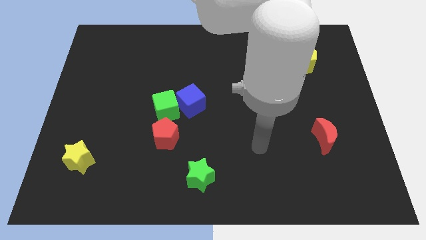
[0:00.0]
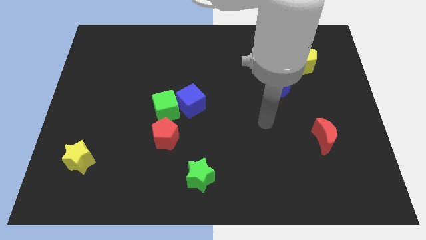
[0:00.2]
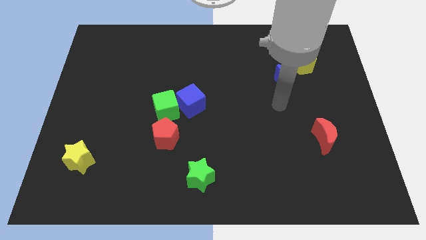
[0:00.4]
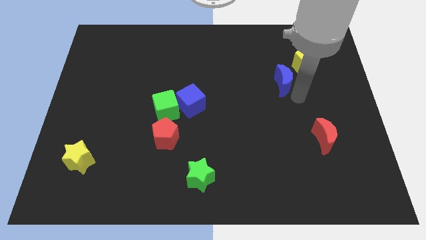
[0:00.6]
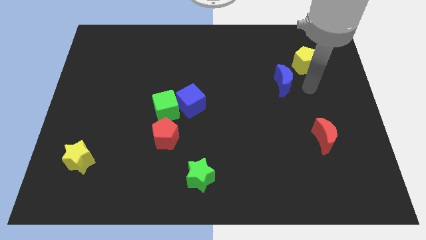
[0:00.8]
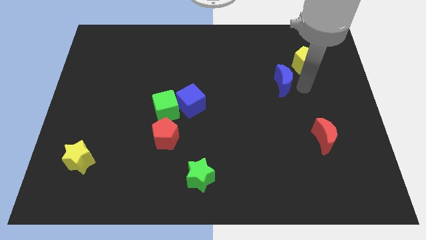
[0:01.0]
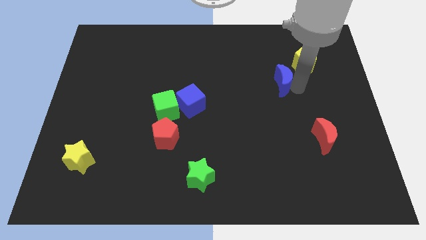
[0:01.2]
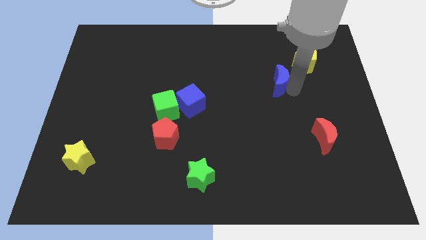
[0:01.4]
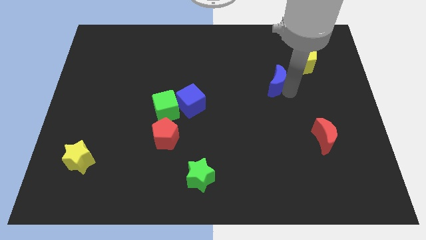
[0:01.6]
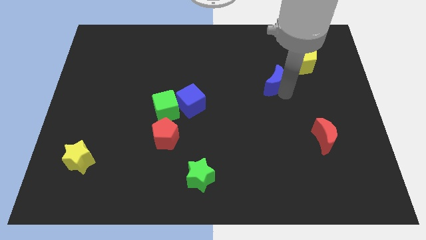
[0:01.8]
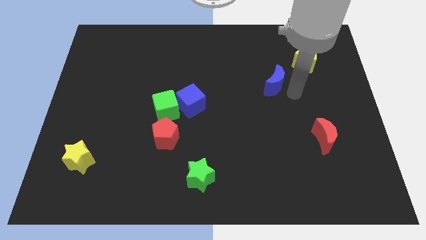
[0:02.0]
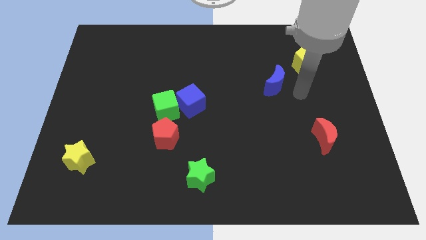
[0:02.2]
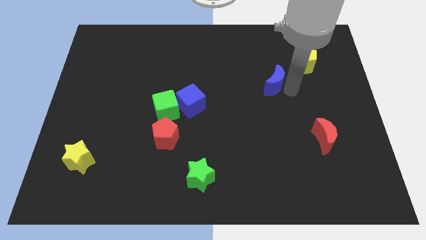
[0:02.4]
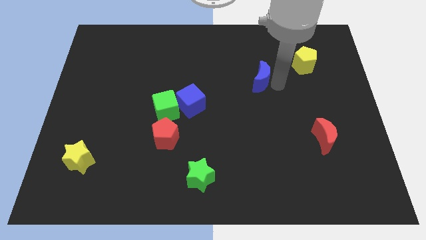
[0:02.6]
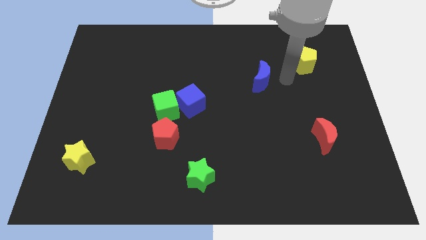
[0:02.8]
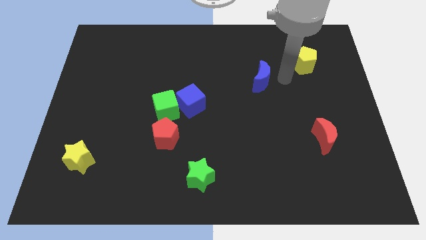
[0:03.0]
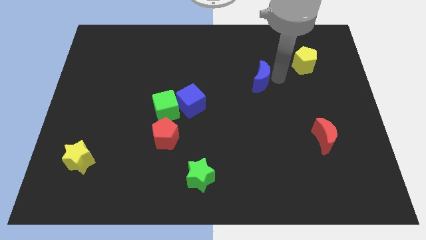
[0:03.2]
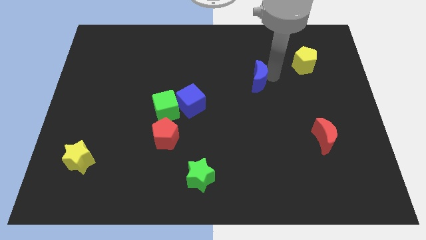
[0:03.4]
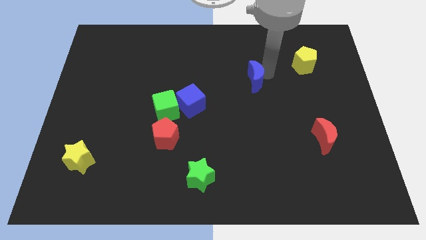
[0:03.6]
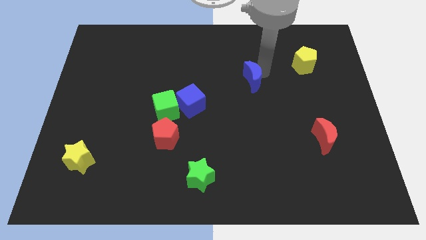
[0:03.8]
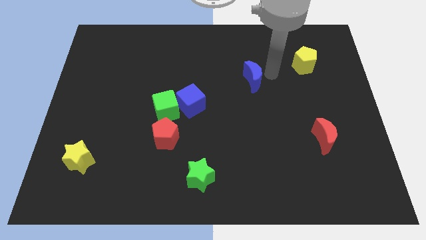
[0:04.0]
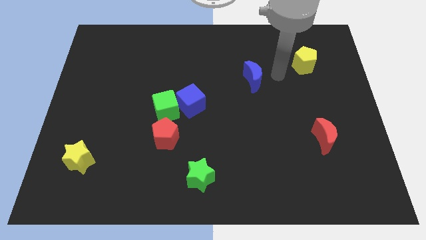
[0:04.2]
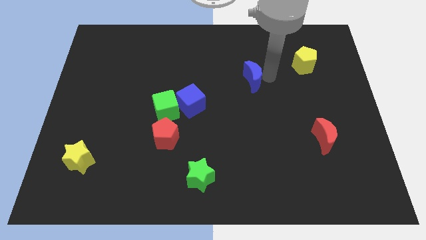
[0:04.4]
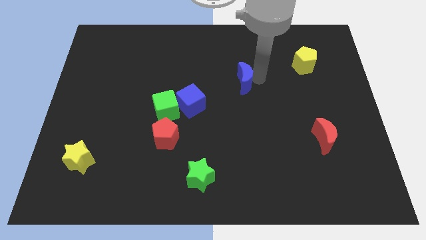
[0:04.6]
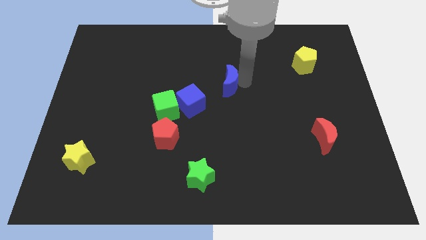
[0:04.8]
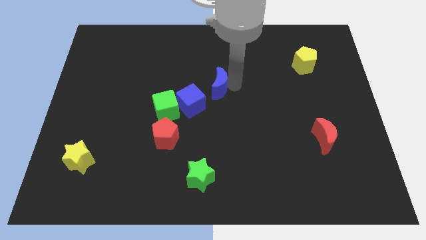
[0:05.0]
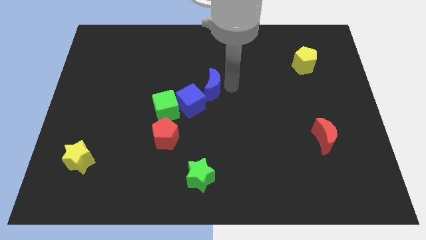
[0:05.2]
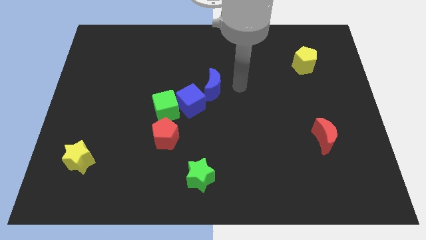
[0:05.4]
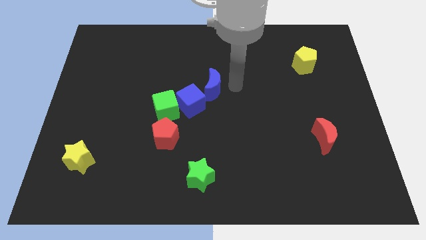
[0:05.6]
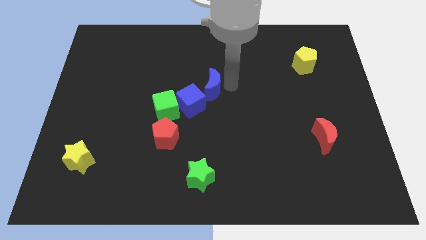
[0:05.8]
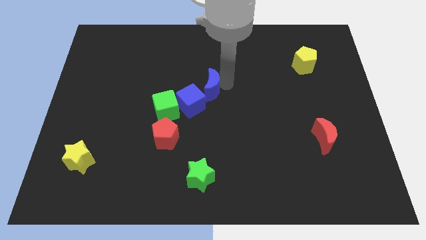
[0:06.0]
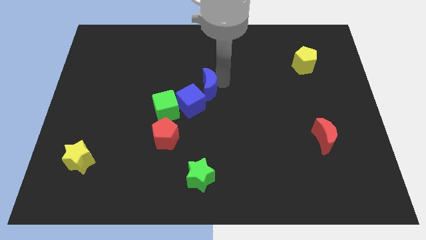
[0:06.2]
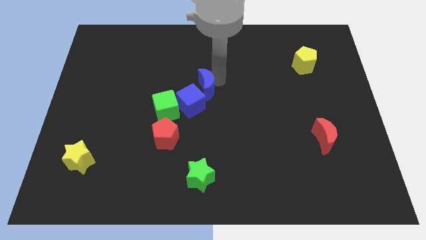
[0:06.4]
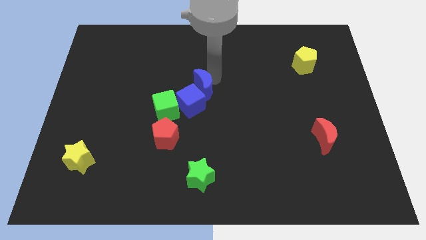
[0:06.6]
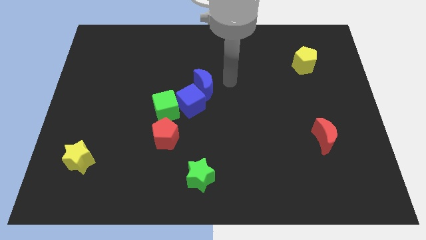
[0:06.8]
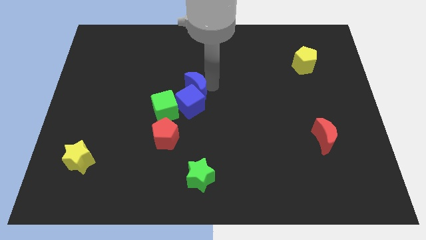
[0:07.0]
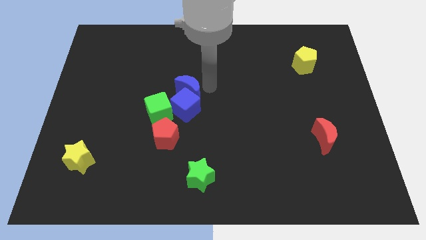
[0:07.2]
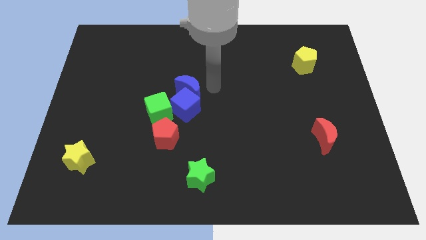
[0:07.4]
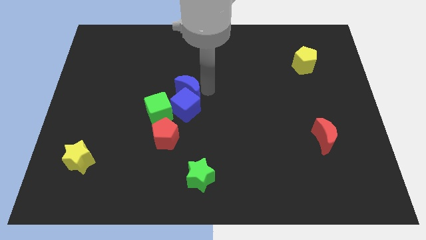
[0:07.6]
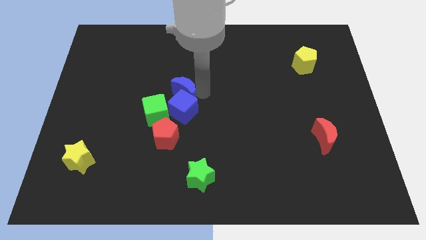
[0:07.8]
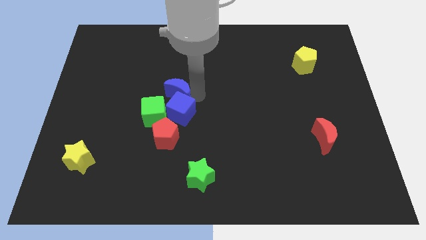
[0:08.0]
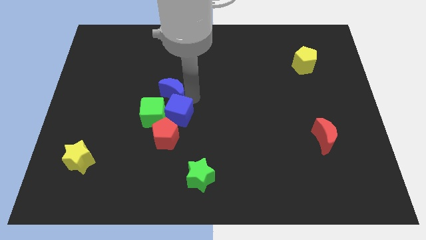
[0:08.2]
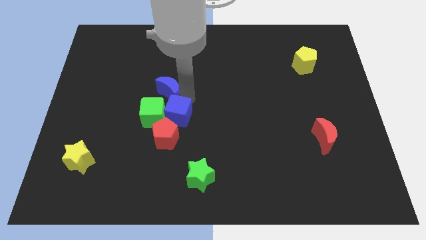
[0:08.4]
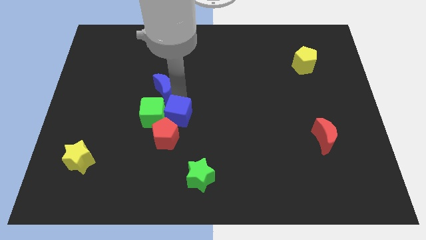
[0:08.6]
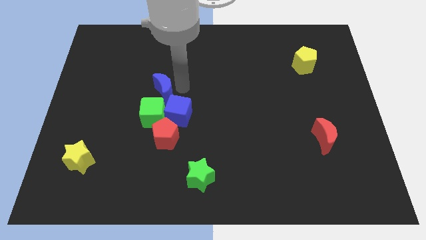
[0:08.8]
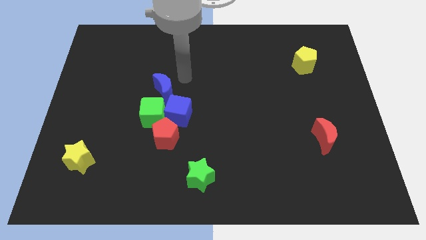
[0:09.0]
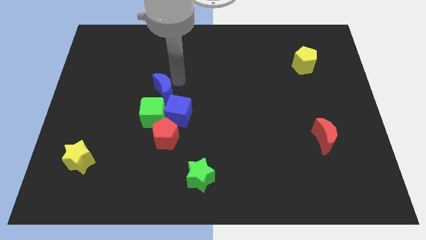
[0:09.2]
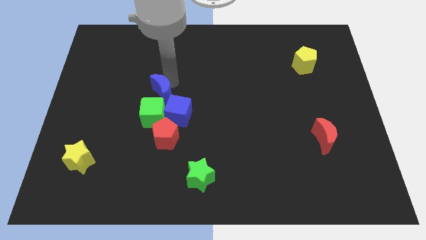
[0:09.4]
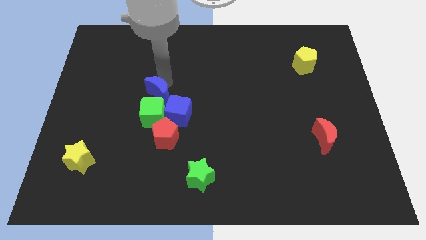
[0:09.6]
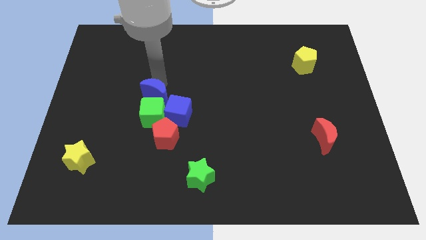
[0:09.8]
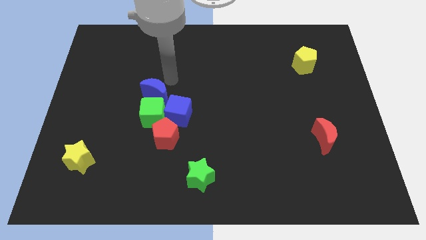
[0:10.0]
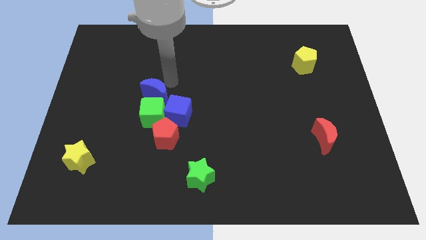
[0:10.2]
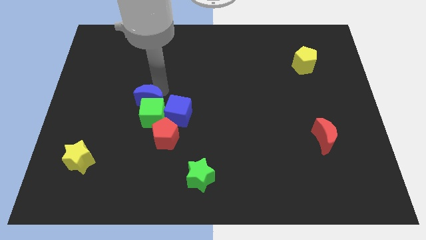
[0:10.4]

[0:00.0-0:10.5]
move the blue moon just left of the blue cube

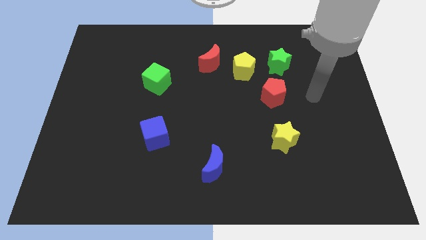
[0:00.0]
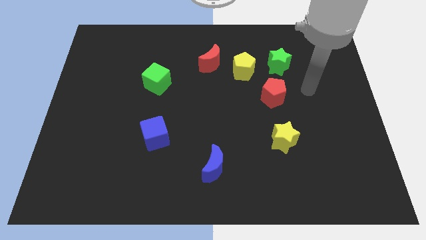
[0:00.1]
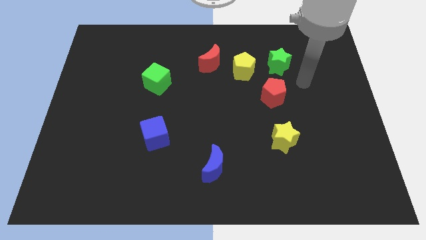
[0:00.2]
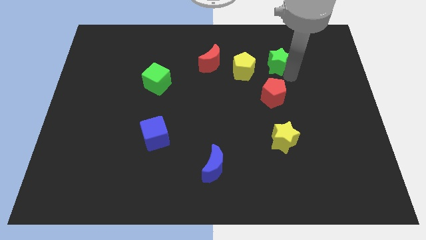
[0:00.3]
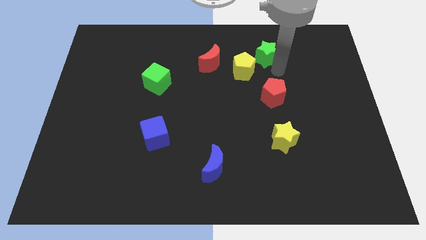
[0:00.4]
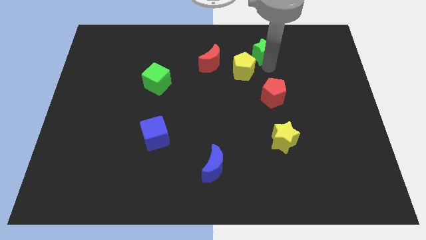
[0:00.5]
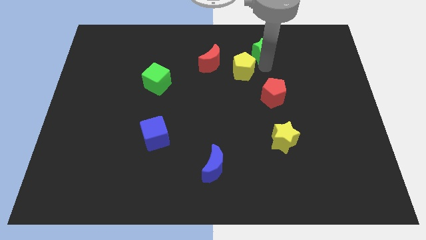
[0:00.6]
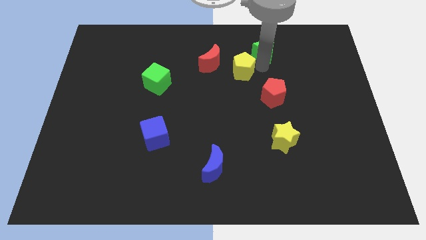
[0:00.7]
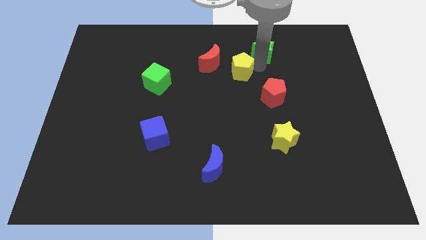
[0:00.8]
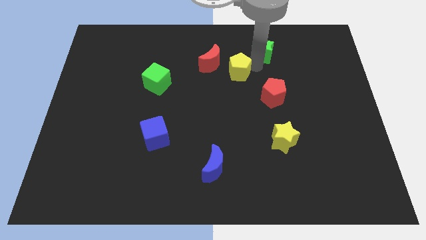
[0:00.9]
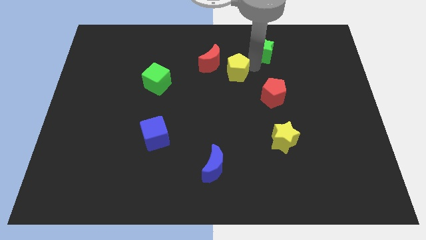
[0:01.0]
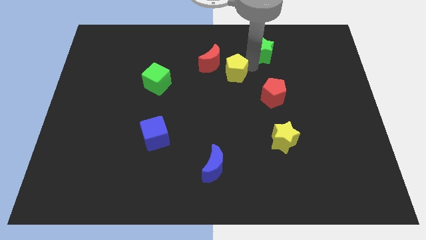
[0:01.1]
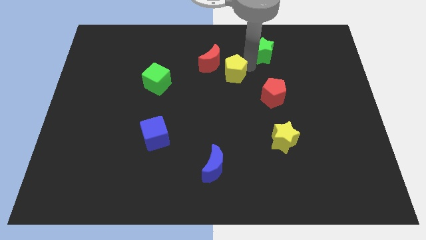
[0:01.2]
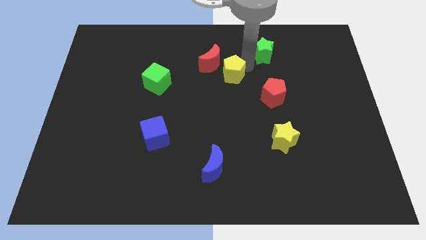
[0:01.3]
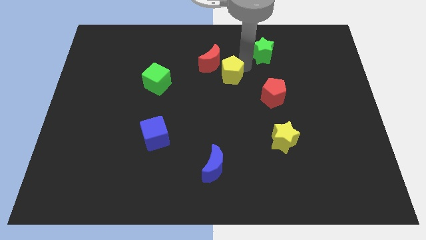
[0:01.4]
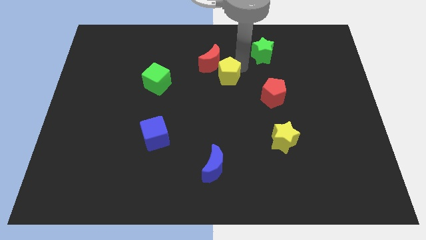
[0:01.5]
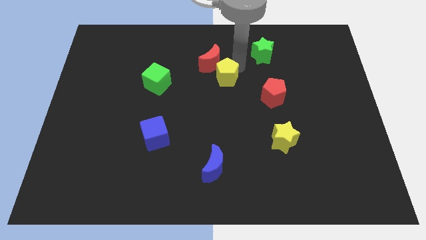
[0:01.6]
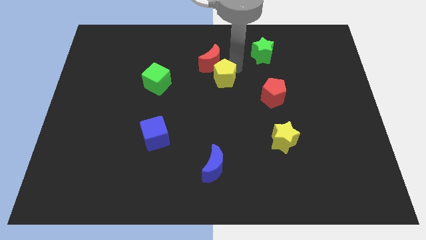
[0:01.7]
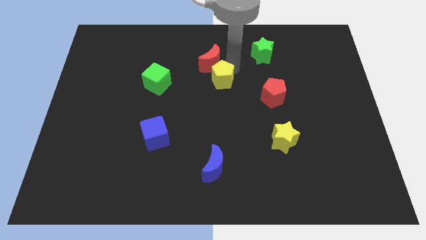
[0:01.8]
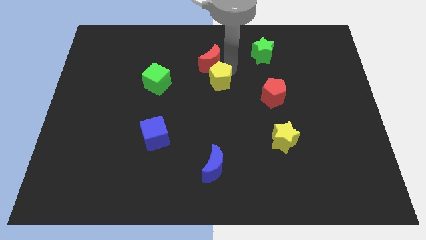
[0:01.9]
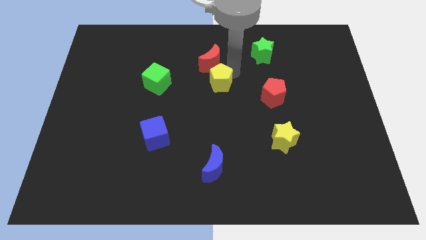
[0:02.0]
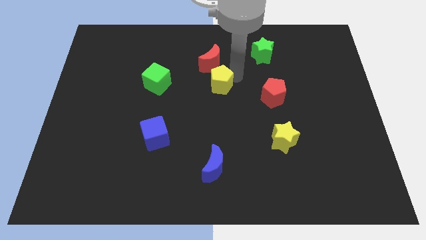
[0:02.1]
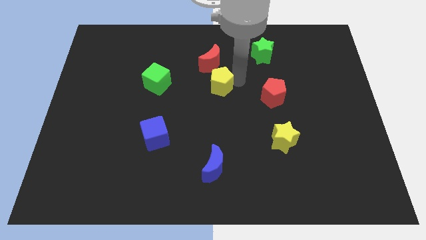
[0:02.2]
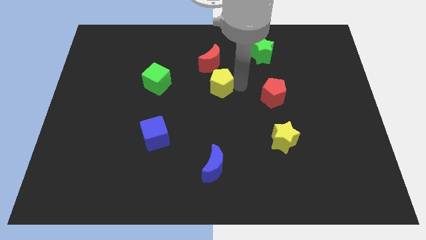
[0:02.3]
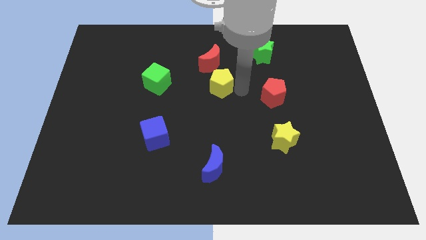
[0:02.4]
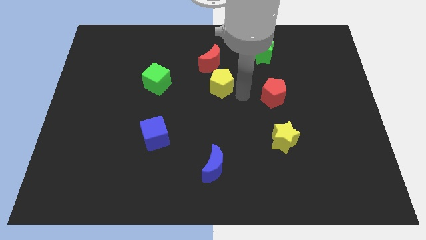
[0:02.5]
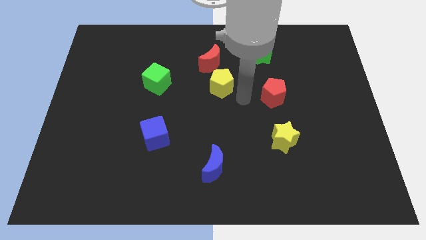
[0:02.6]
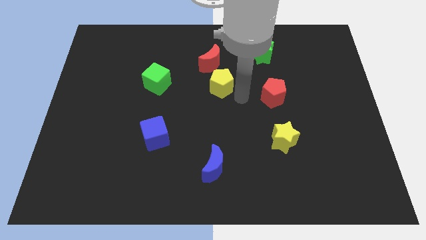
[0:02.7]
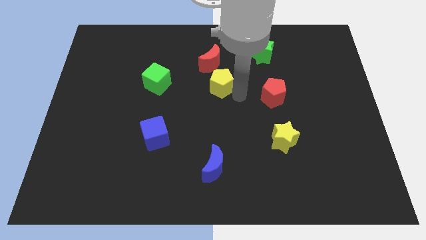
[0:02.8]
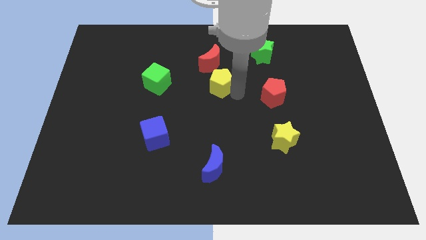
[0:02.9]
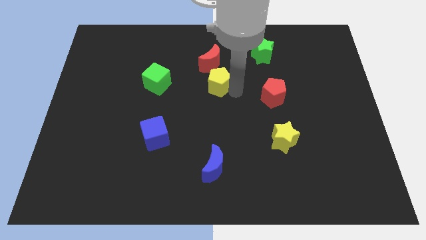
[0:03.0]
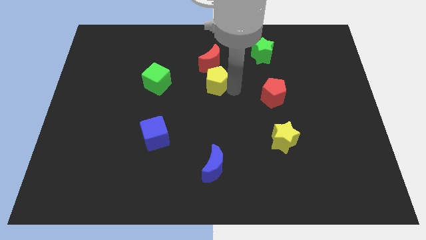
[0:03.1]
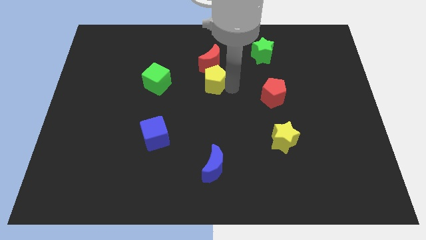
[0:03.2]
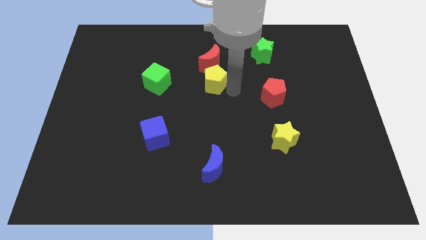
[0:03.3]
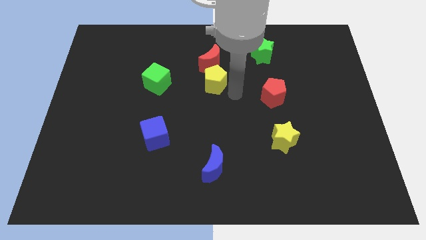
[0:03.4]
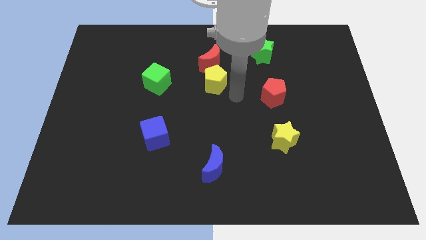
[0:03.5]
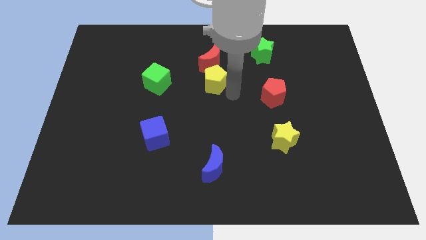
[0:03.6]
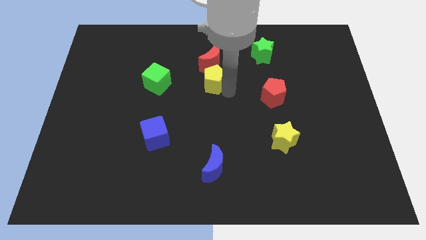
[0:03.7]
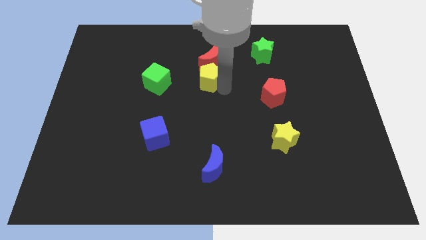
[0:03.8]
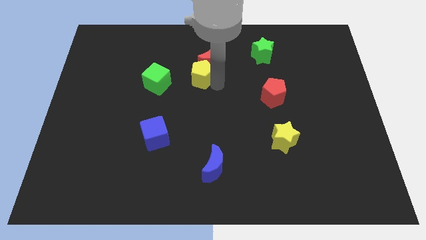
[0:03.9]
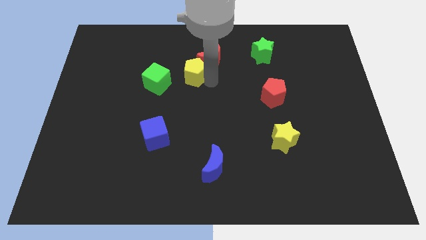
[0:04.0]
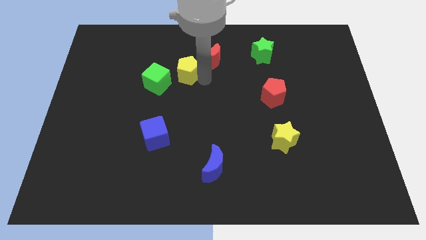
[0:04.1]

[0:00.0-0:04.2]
push the yellow pentagon to the top right of the green cube
